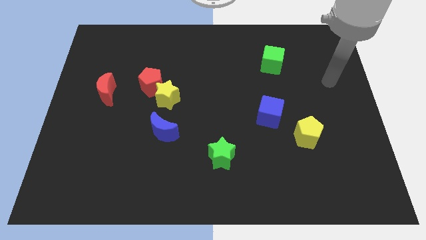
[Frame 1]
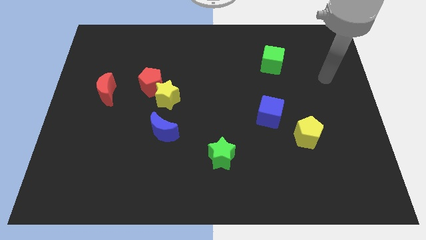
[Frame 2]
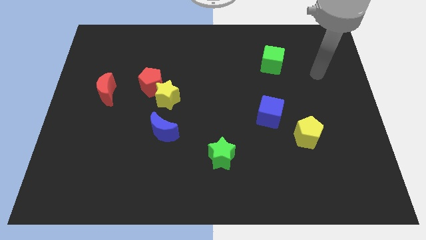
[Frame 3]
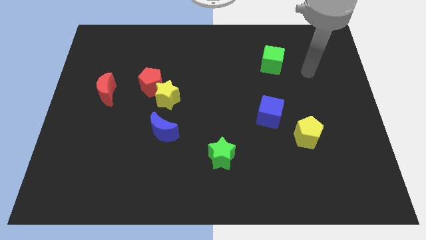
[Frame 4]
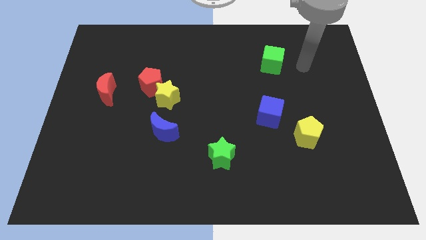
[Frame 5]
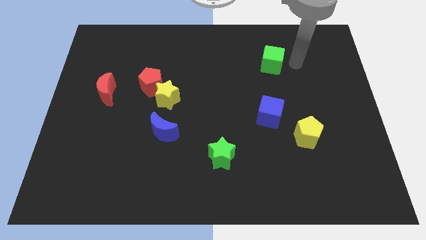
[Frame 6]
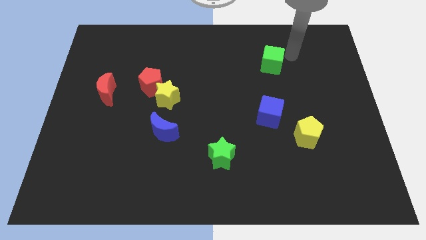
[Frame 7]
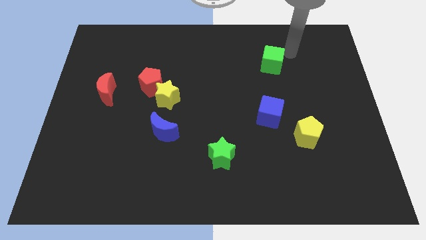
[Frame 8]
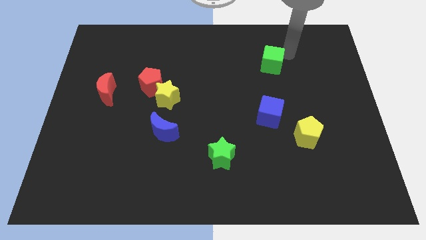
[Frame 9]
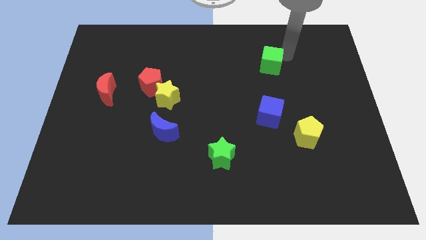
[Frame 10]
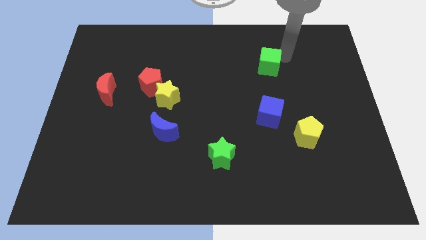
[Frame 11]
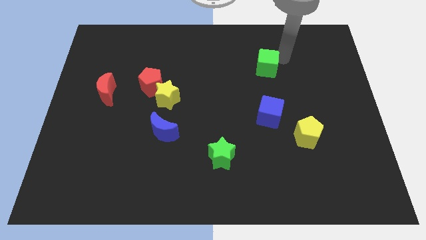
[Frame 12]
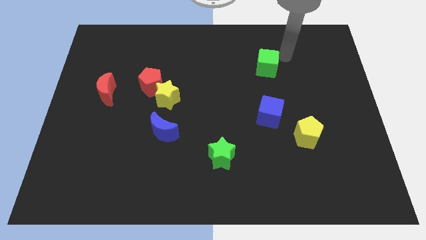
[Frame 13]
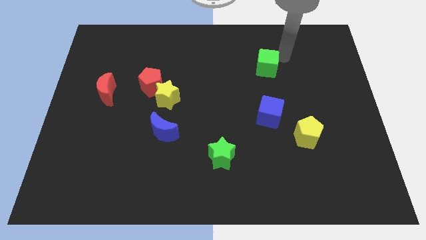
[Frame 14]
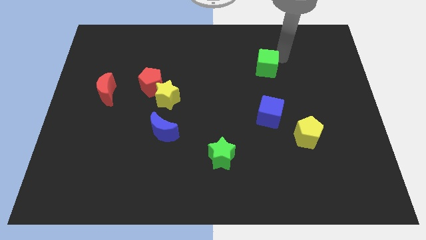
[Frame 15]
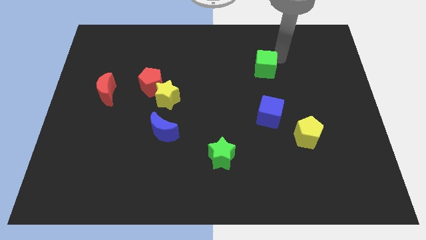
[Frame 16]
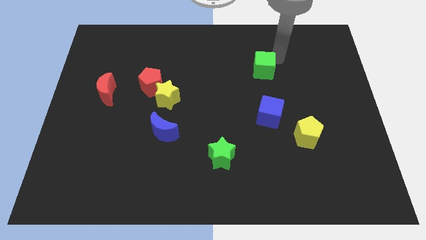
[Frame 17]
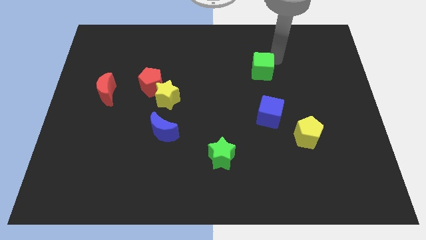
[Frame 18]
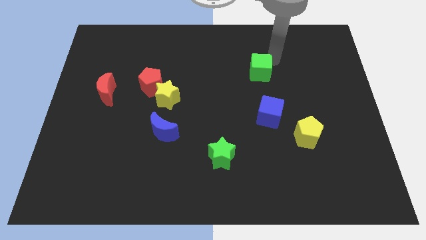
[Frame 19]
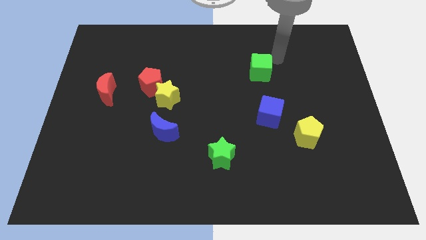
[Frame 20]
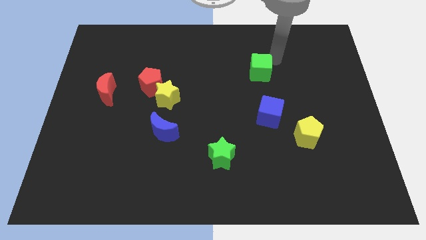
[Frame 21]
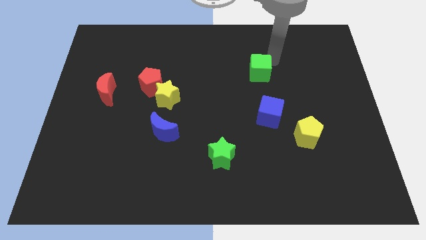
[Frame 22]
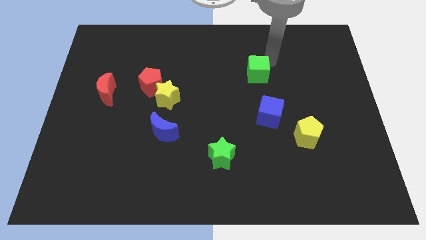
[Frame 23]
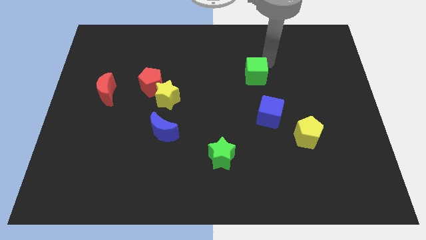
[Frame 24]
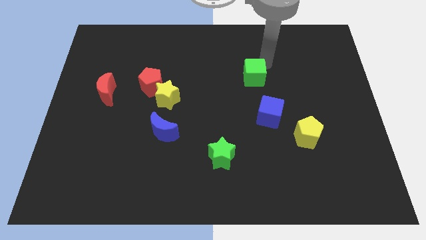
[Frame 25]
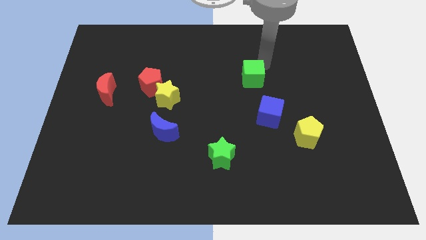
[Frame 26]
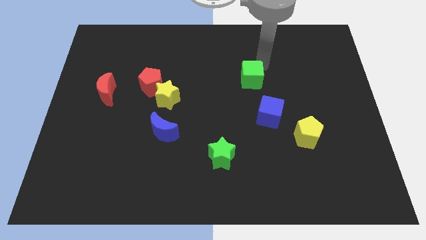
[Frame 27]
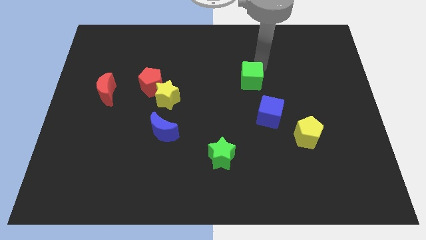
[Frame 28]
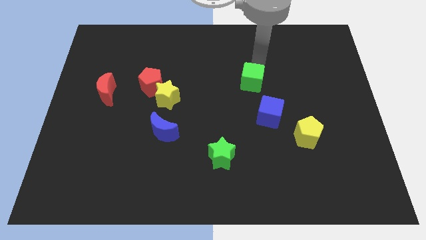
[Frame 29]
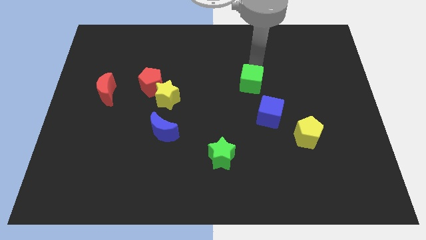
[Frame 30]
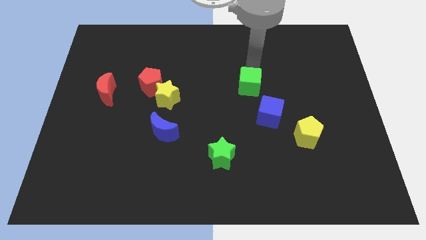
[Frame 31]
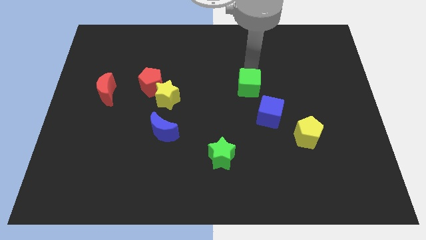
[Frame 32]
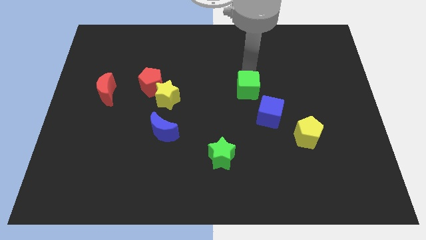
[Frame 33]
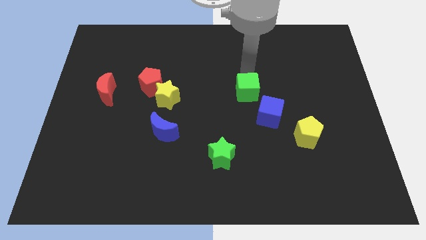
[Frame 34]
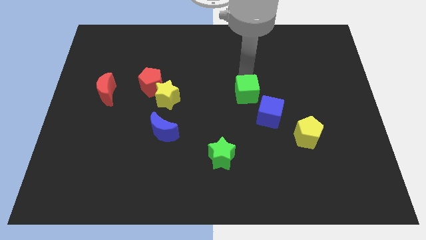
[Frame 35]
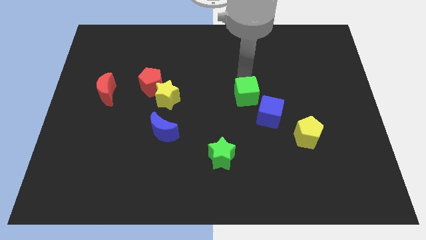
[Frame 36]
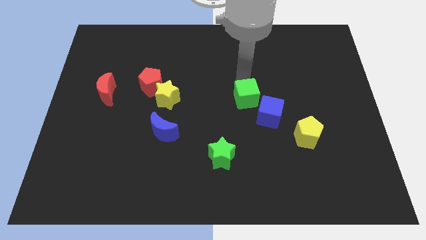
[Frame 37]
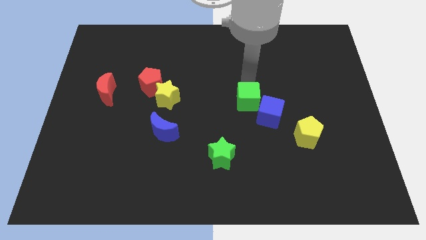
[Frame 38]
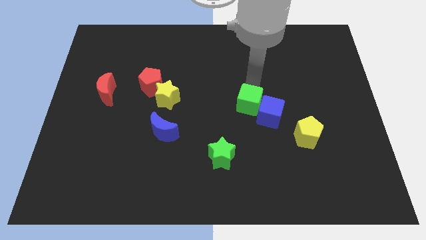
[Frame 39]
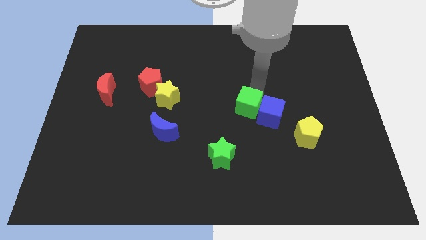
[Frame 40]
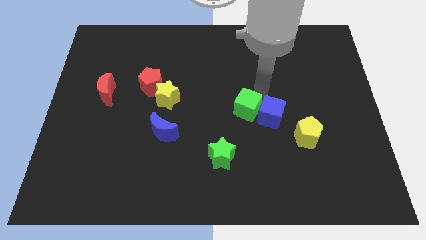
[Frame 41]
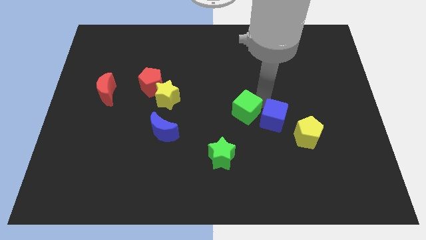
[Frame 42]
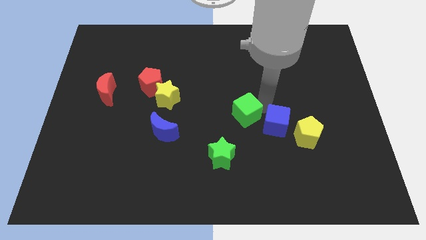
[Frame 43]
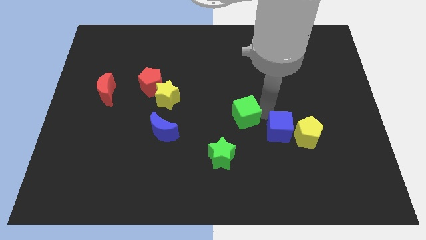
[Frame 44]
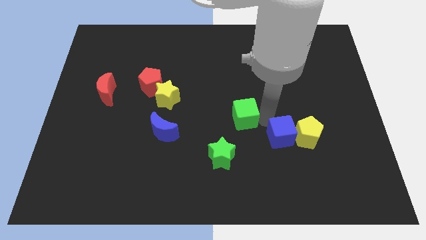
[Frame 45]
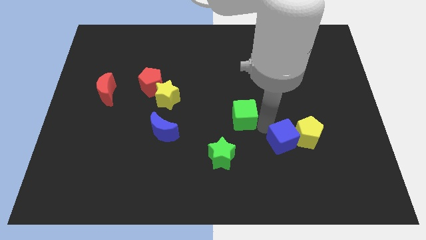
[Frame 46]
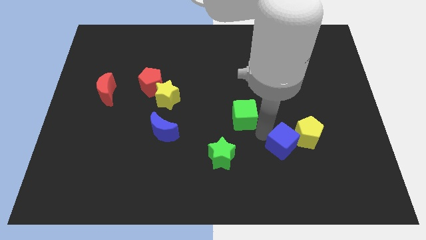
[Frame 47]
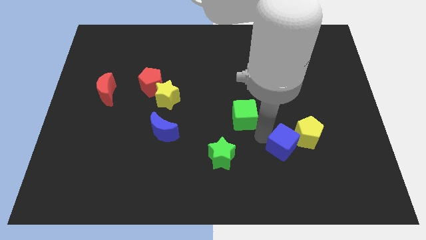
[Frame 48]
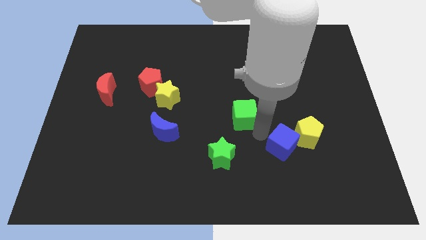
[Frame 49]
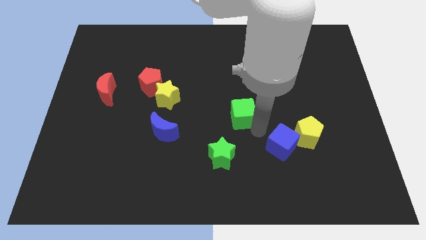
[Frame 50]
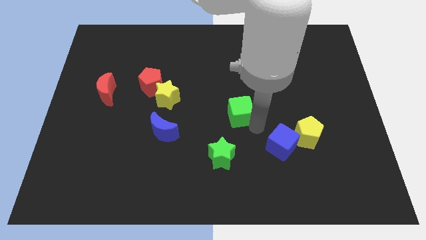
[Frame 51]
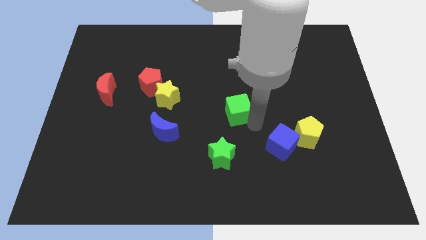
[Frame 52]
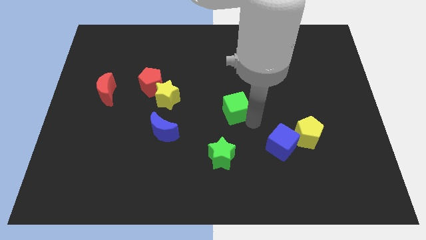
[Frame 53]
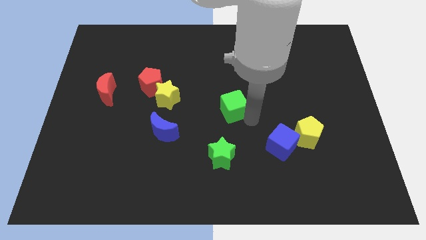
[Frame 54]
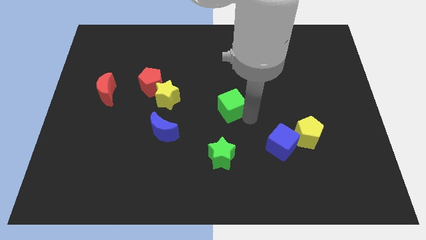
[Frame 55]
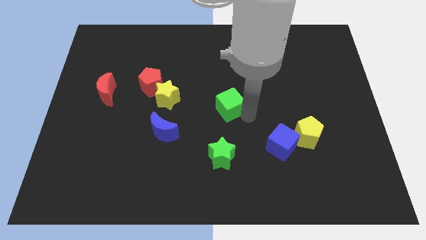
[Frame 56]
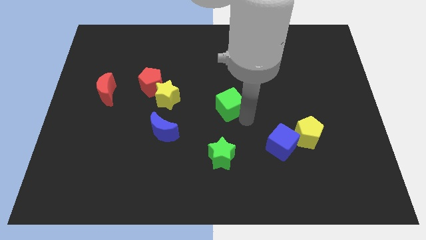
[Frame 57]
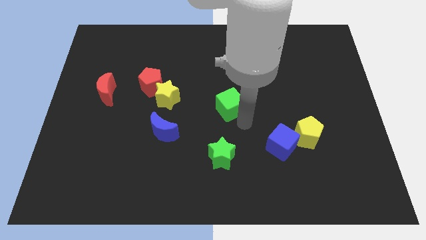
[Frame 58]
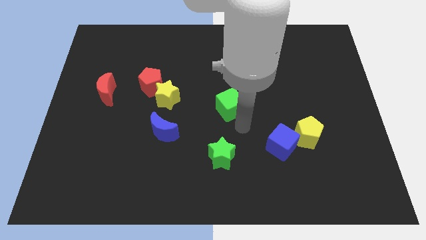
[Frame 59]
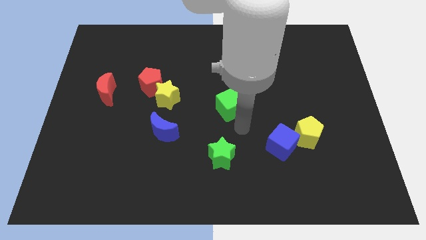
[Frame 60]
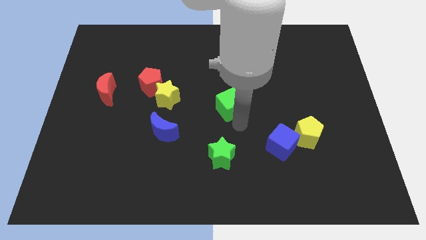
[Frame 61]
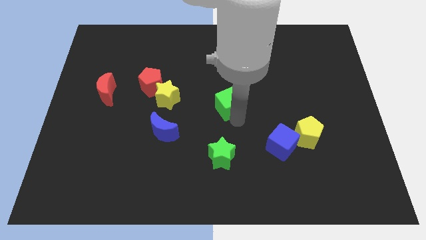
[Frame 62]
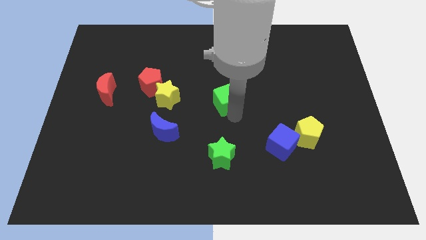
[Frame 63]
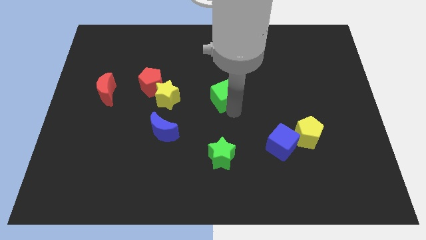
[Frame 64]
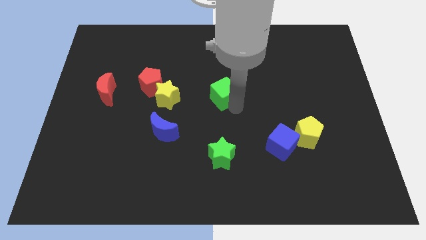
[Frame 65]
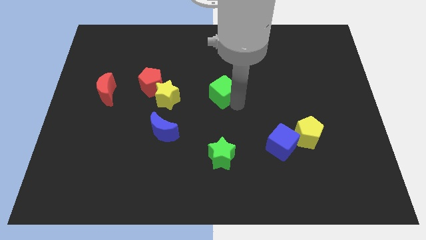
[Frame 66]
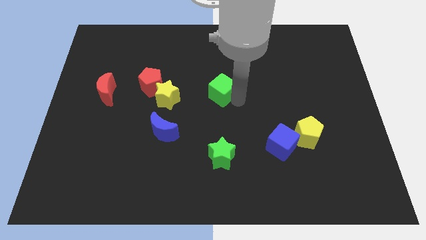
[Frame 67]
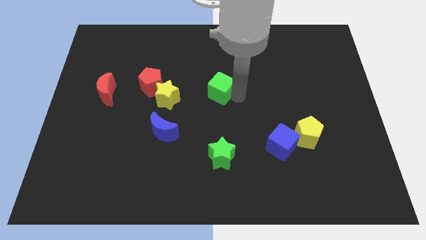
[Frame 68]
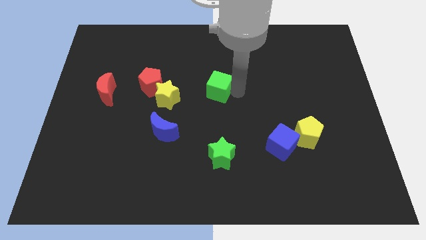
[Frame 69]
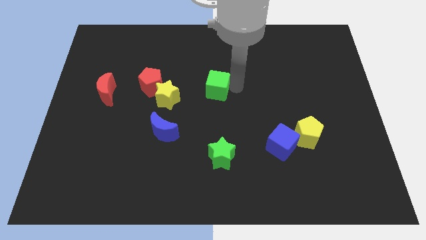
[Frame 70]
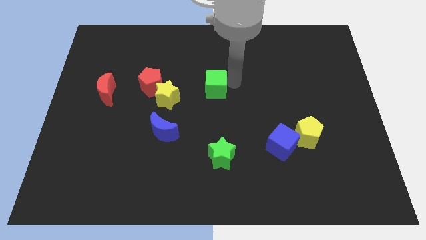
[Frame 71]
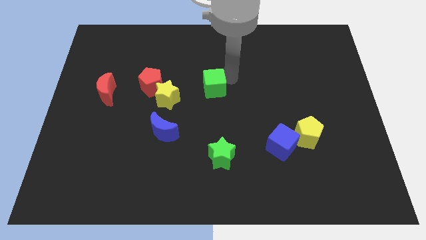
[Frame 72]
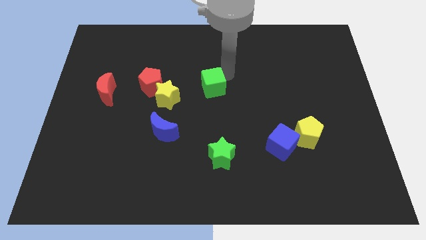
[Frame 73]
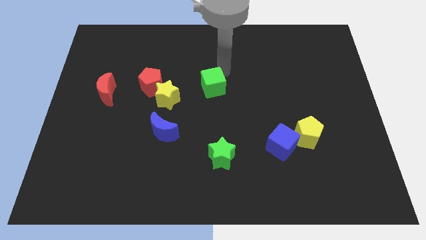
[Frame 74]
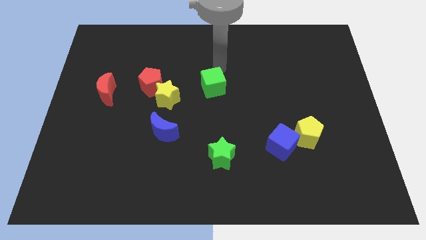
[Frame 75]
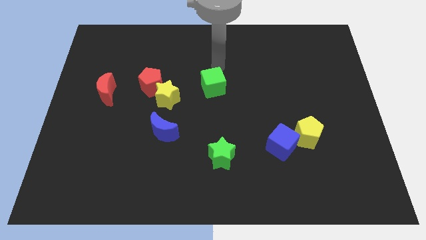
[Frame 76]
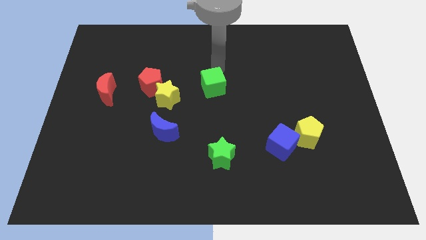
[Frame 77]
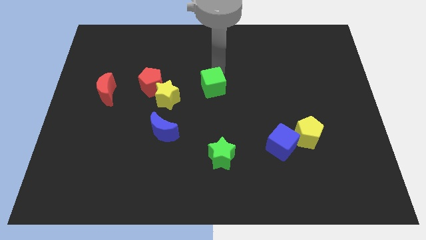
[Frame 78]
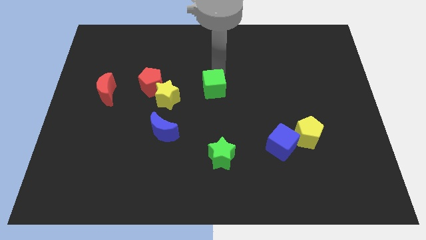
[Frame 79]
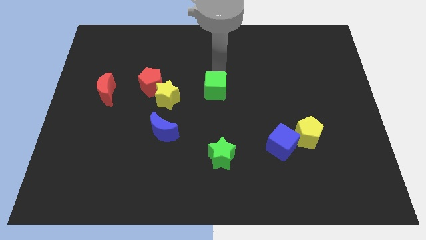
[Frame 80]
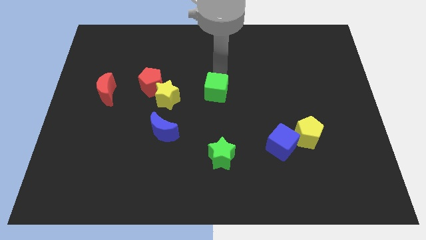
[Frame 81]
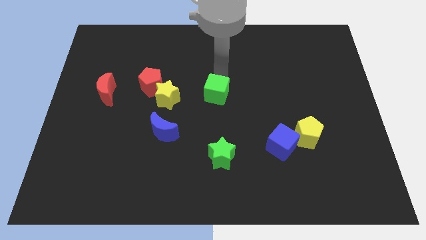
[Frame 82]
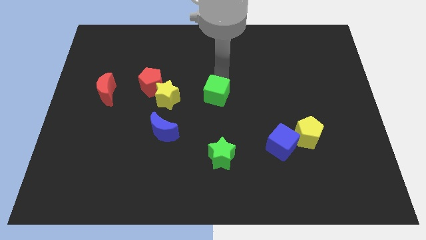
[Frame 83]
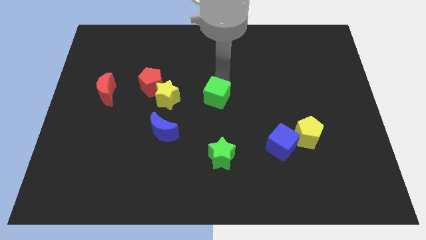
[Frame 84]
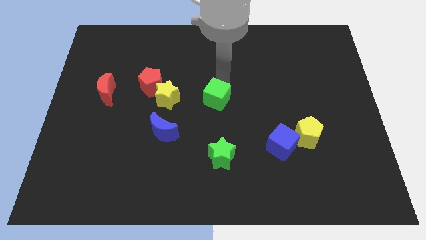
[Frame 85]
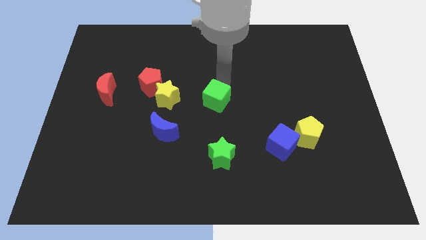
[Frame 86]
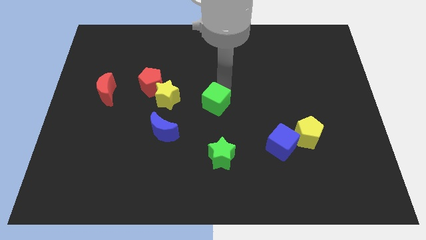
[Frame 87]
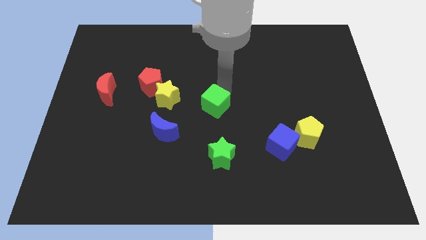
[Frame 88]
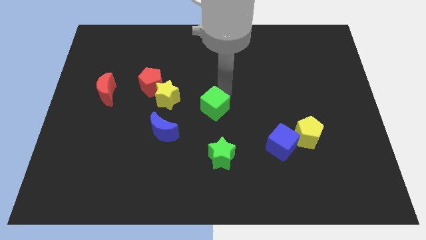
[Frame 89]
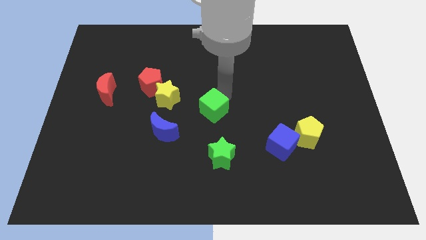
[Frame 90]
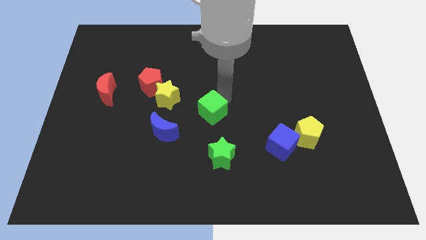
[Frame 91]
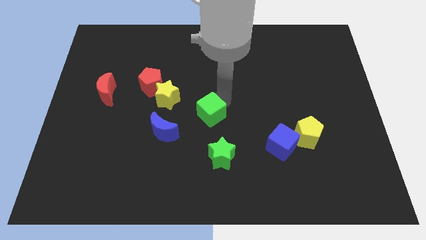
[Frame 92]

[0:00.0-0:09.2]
push the green cube diagonally up and to the right of the blue moon
